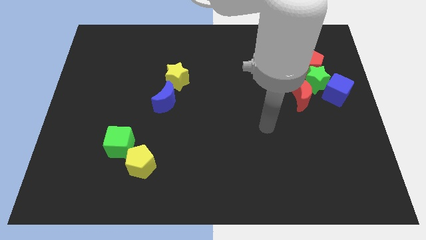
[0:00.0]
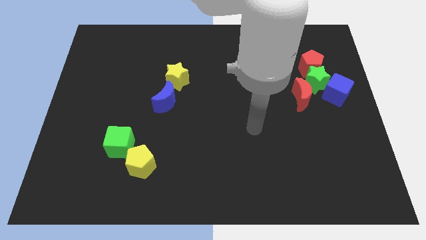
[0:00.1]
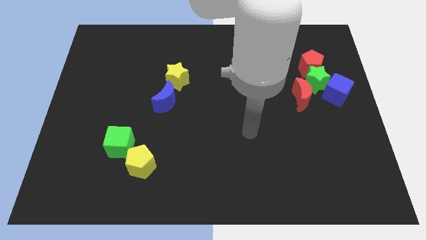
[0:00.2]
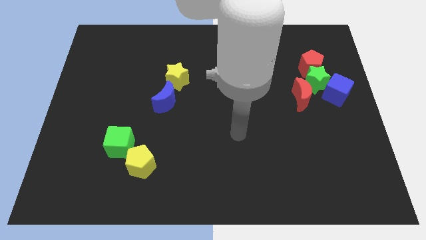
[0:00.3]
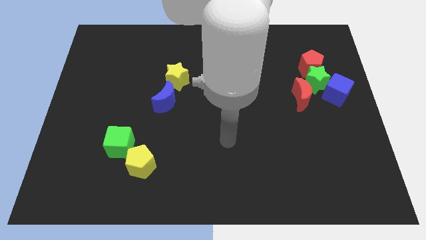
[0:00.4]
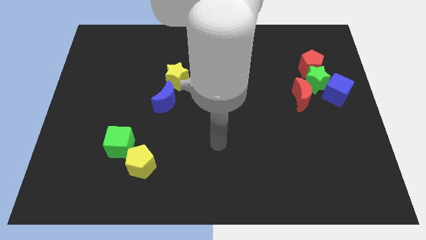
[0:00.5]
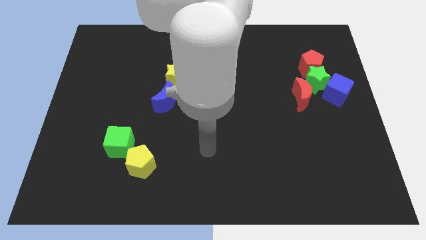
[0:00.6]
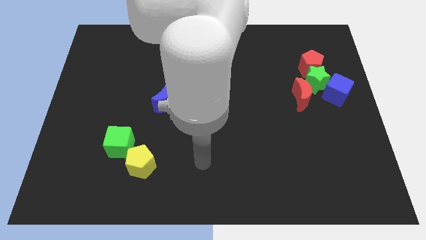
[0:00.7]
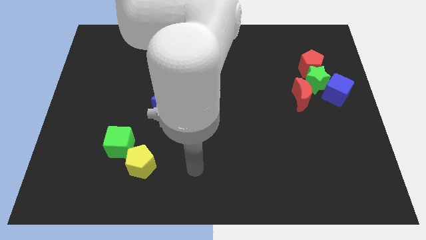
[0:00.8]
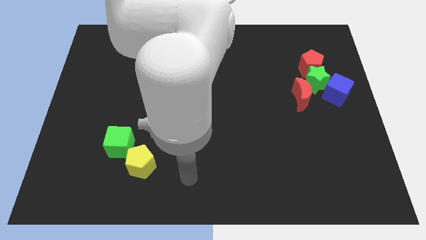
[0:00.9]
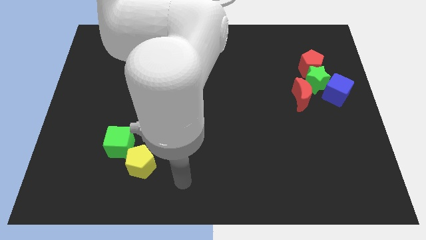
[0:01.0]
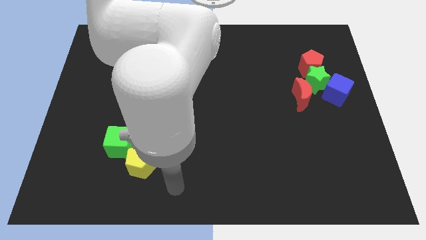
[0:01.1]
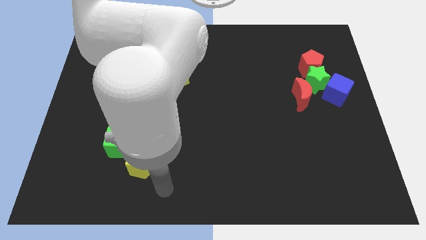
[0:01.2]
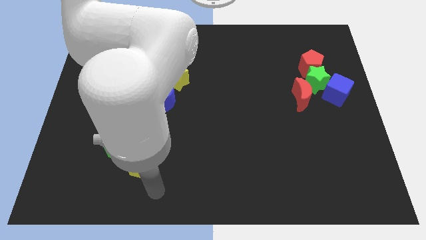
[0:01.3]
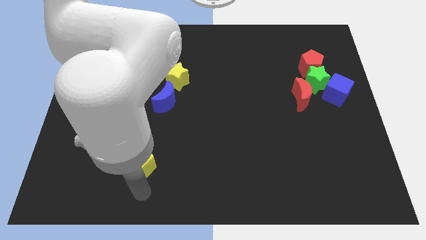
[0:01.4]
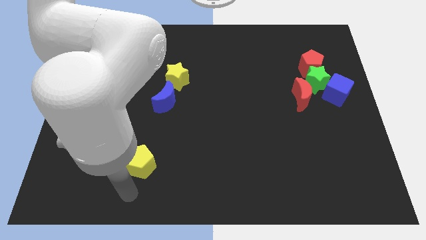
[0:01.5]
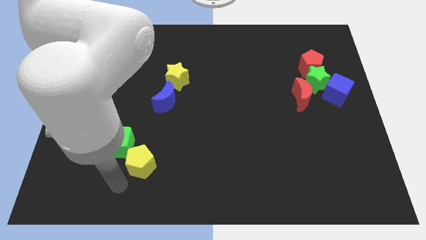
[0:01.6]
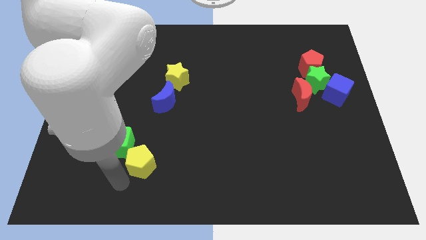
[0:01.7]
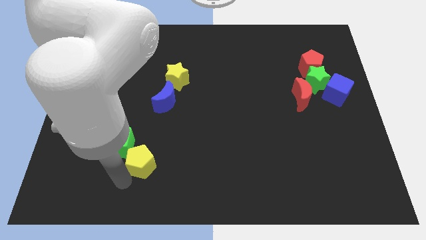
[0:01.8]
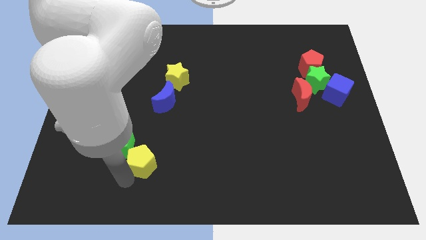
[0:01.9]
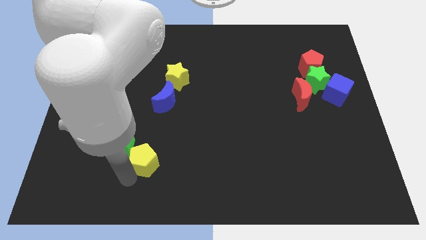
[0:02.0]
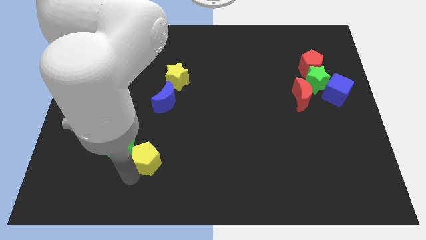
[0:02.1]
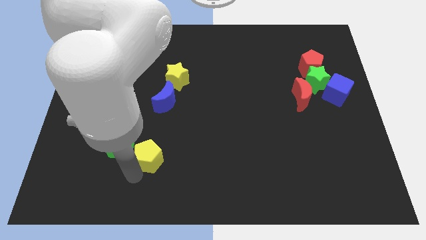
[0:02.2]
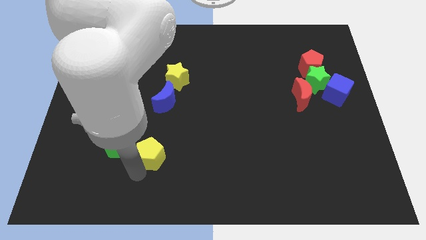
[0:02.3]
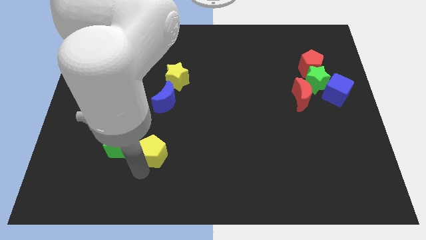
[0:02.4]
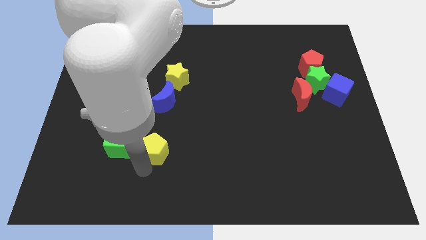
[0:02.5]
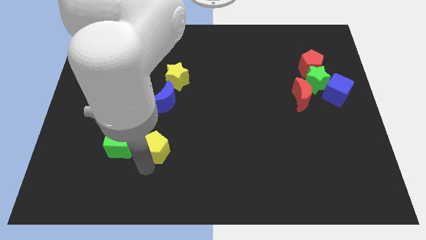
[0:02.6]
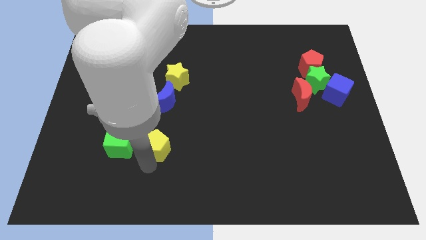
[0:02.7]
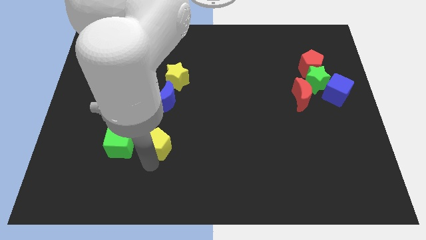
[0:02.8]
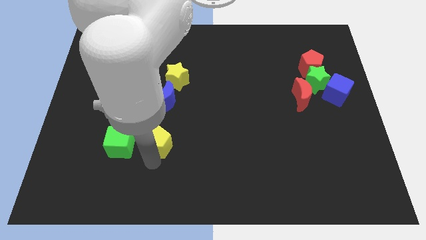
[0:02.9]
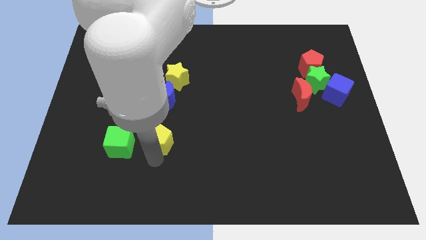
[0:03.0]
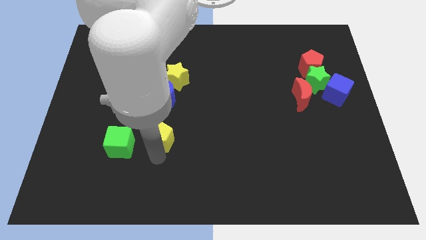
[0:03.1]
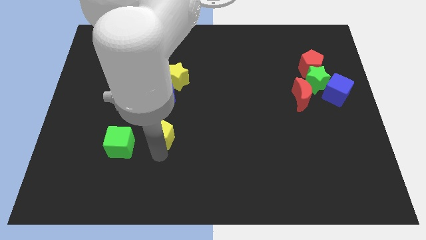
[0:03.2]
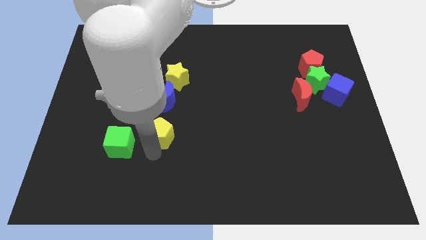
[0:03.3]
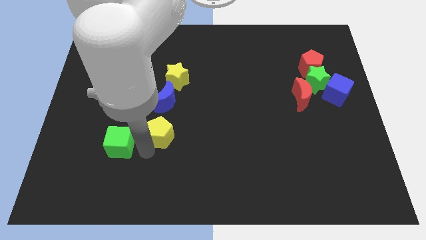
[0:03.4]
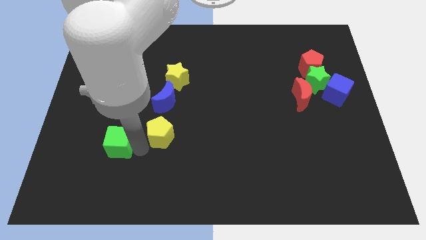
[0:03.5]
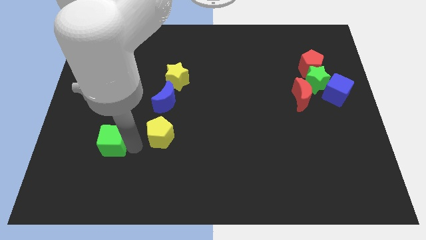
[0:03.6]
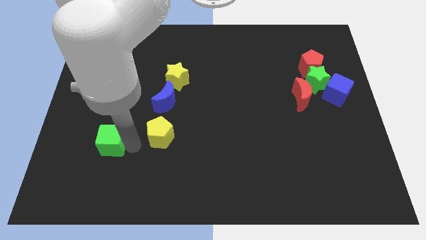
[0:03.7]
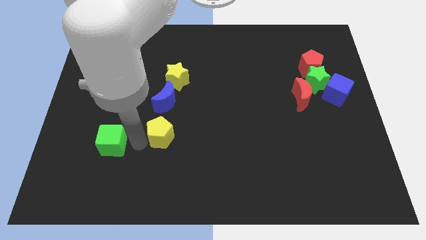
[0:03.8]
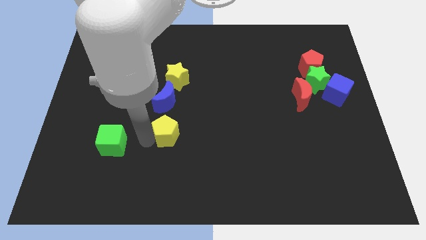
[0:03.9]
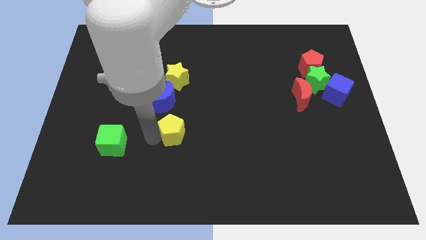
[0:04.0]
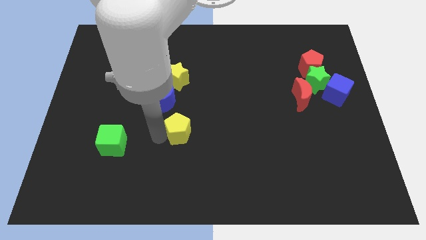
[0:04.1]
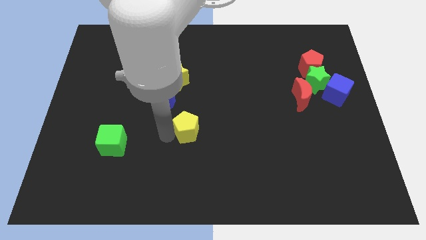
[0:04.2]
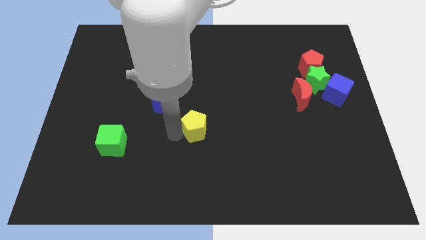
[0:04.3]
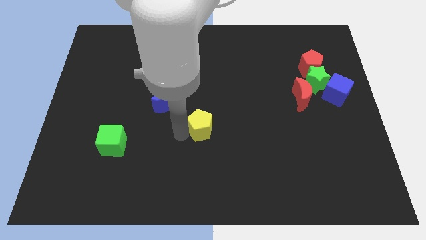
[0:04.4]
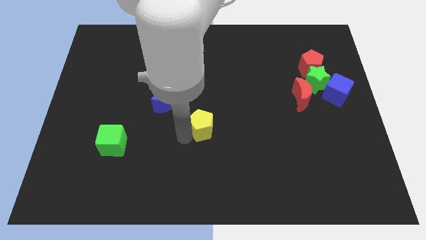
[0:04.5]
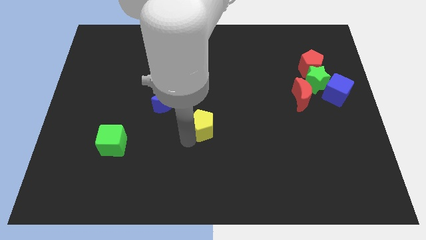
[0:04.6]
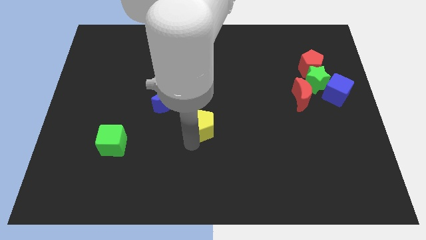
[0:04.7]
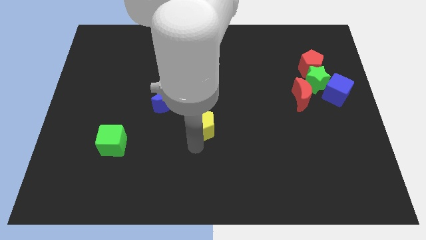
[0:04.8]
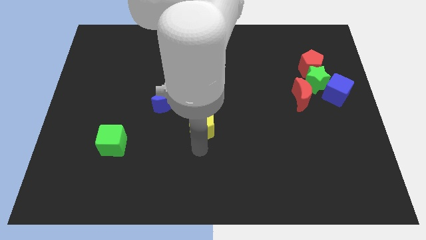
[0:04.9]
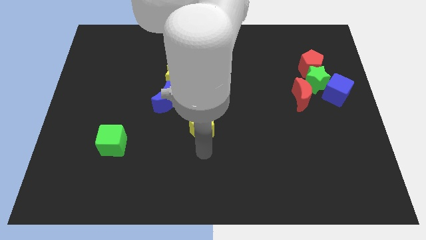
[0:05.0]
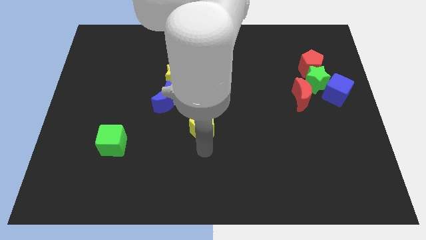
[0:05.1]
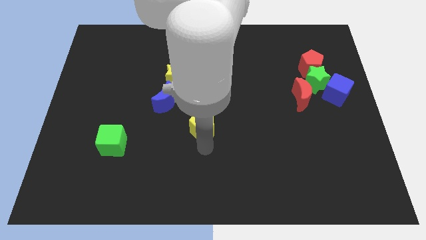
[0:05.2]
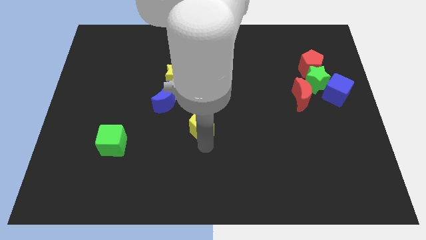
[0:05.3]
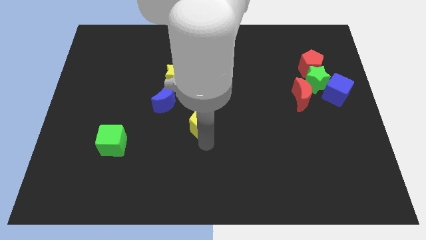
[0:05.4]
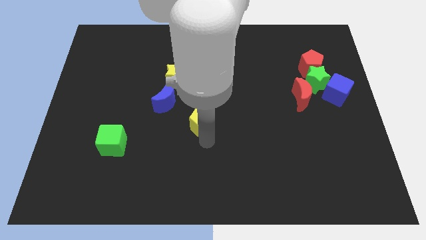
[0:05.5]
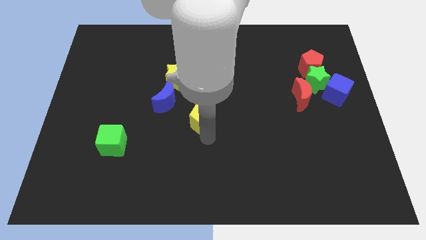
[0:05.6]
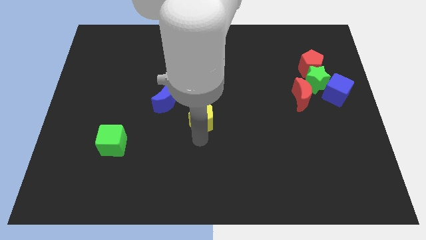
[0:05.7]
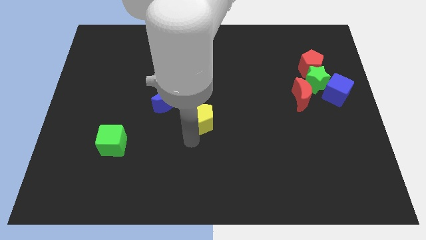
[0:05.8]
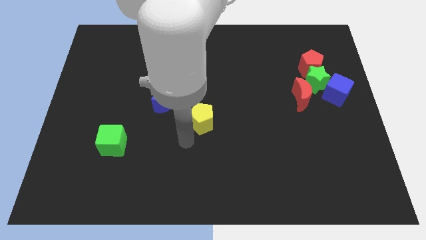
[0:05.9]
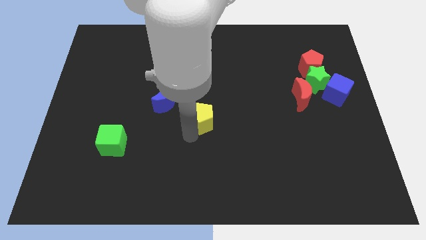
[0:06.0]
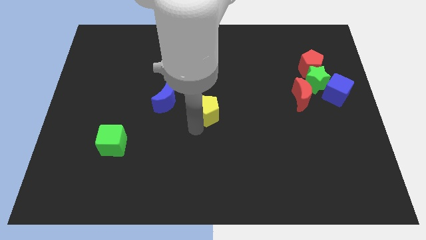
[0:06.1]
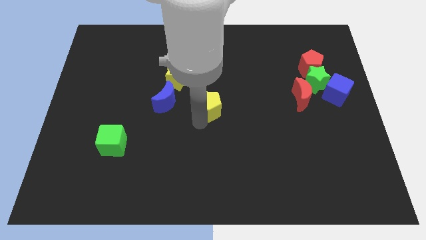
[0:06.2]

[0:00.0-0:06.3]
push the yellow pentagon upwards and then right

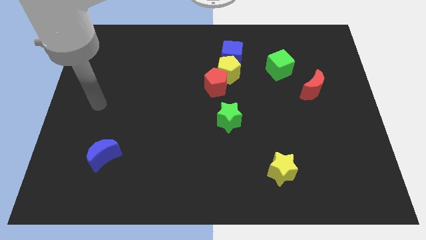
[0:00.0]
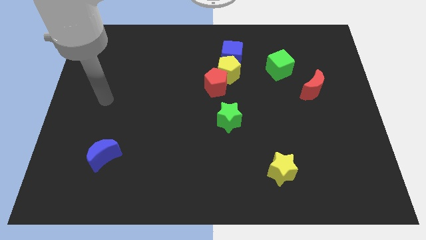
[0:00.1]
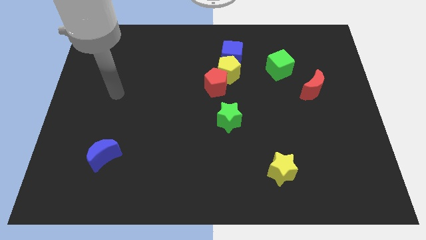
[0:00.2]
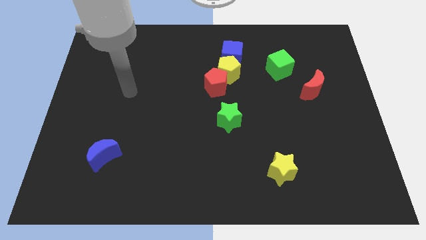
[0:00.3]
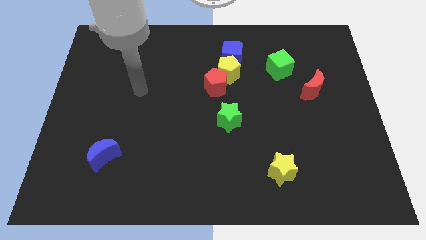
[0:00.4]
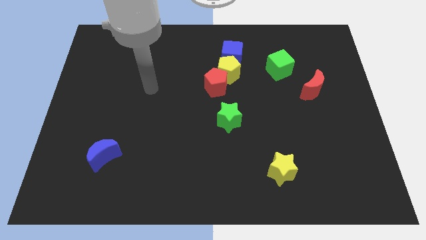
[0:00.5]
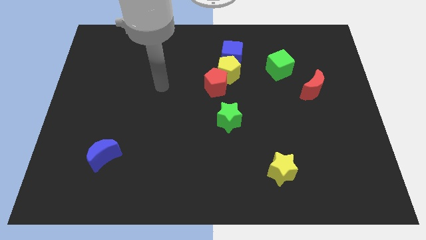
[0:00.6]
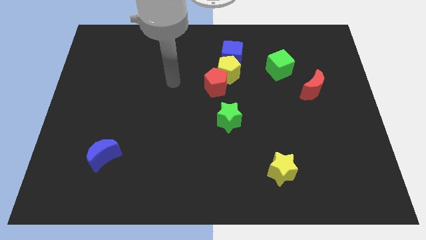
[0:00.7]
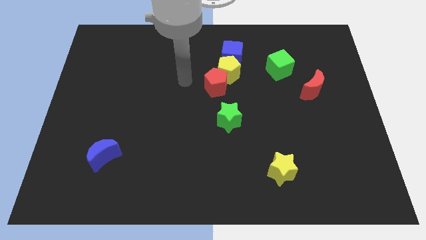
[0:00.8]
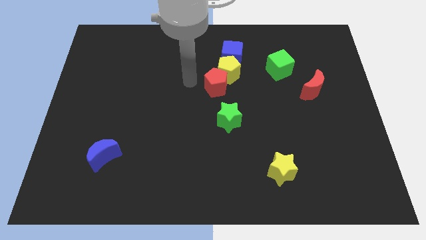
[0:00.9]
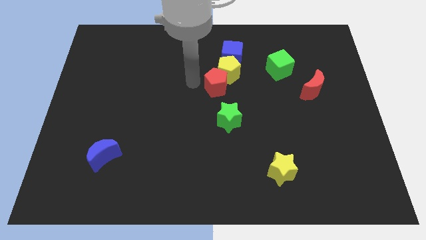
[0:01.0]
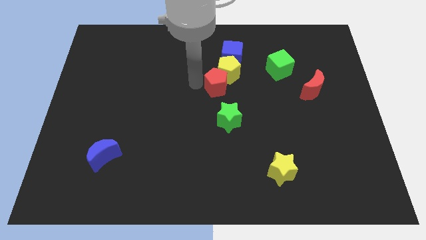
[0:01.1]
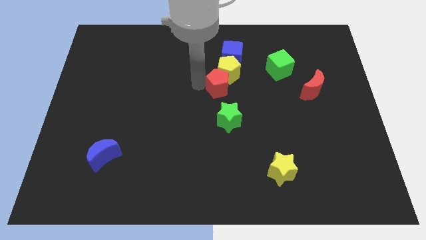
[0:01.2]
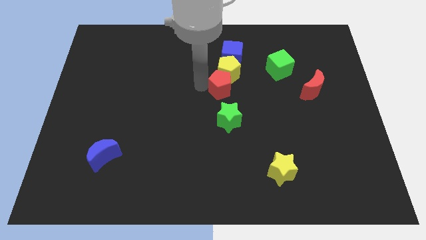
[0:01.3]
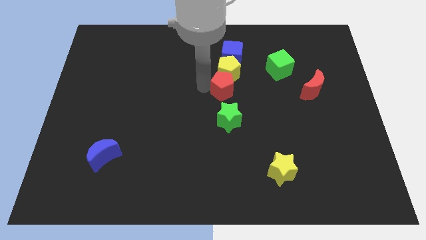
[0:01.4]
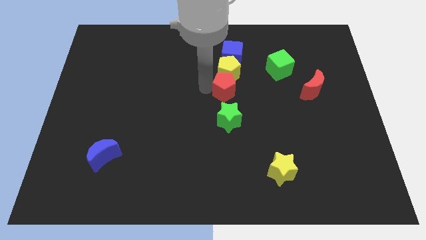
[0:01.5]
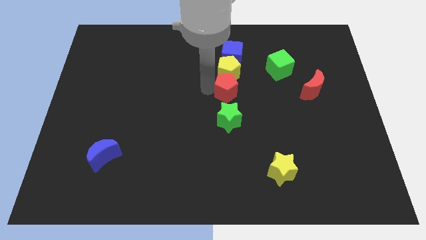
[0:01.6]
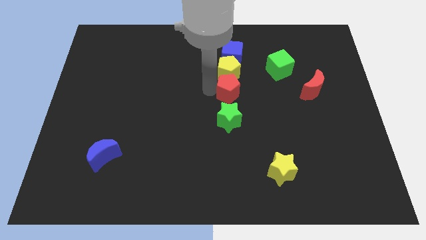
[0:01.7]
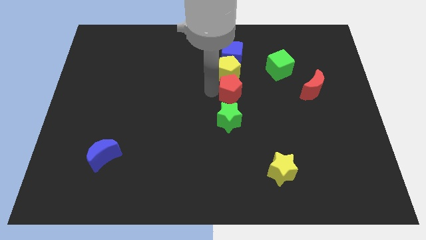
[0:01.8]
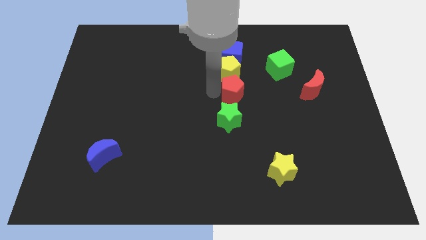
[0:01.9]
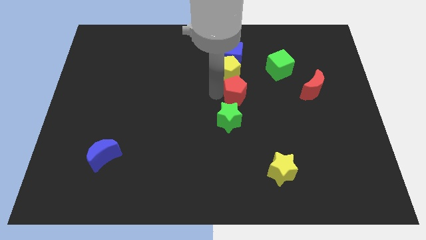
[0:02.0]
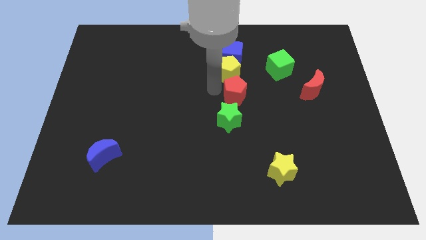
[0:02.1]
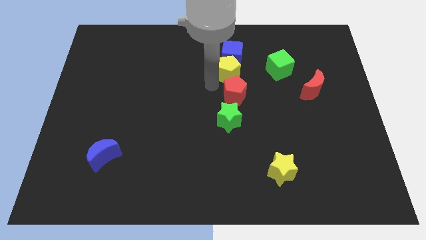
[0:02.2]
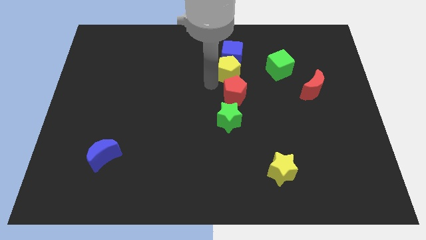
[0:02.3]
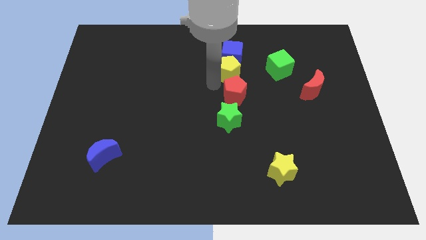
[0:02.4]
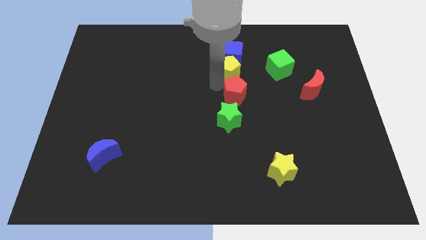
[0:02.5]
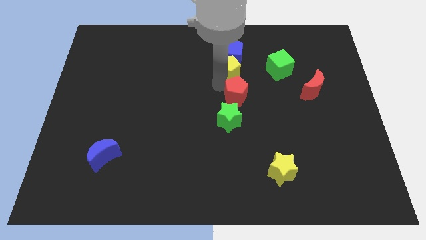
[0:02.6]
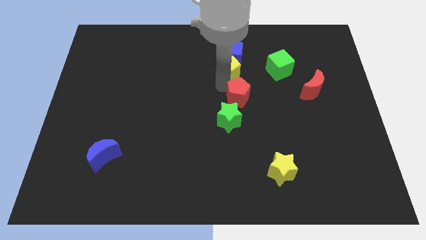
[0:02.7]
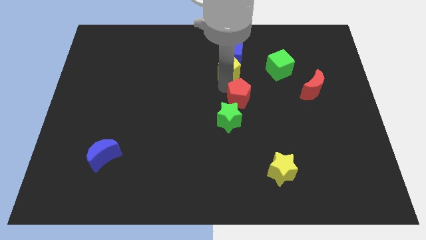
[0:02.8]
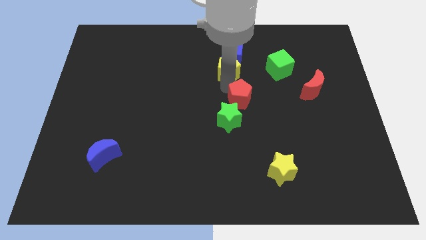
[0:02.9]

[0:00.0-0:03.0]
slightly move the red pentagon downwards and right diagonally
